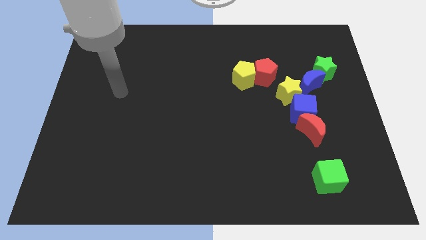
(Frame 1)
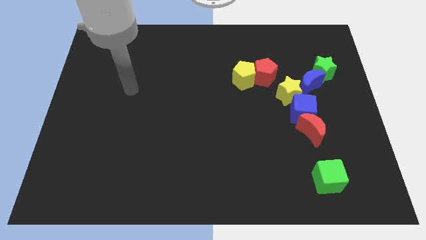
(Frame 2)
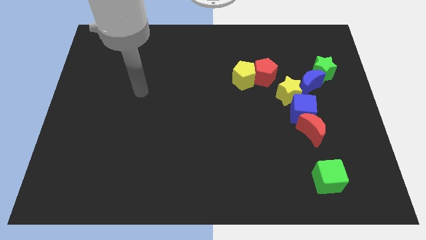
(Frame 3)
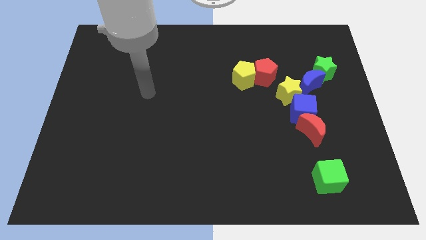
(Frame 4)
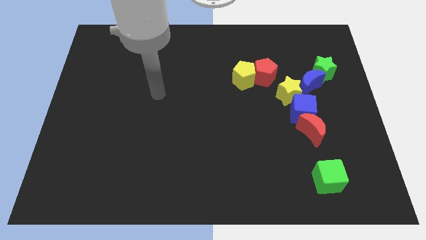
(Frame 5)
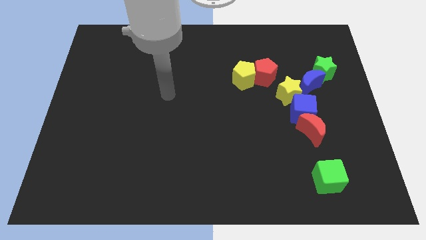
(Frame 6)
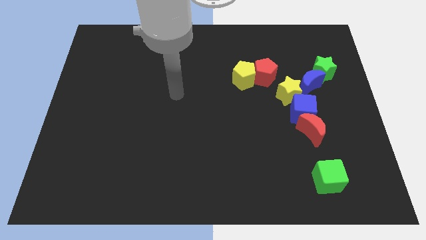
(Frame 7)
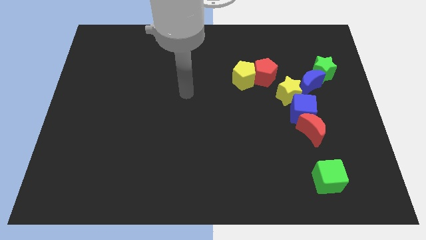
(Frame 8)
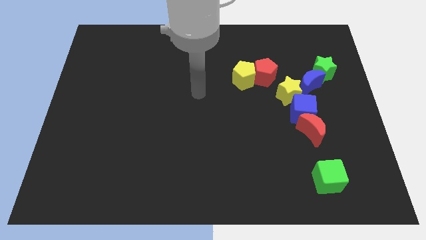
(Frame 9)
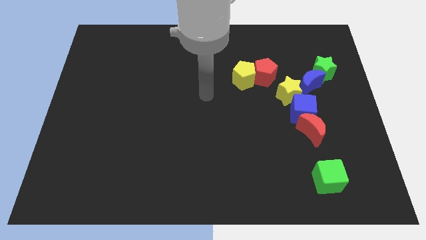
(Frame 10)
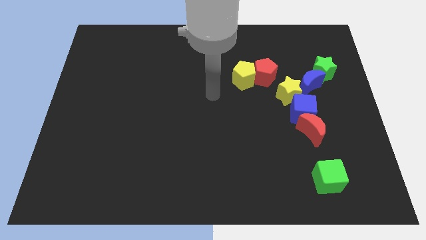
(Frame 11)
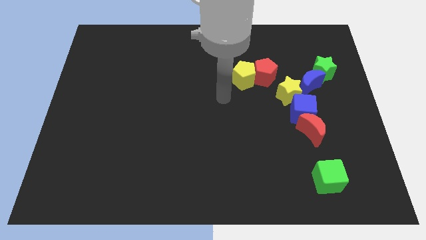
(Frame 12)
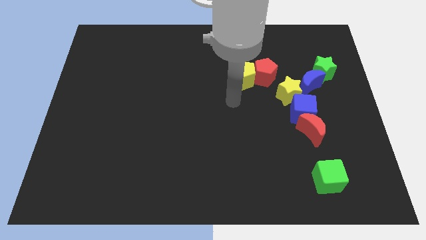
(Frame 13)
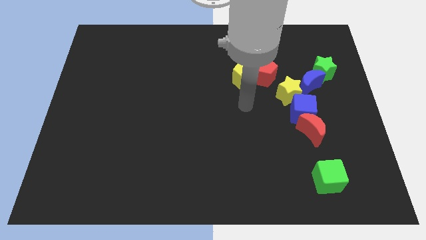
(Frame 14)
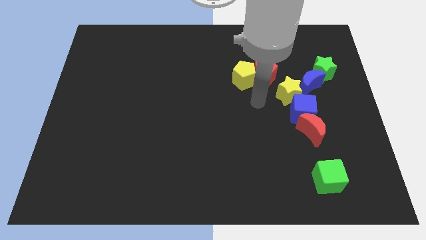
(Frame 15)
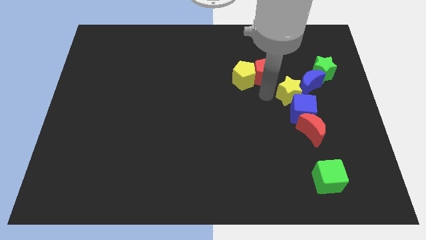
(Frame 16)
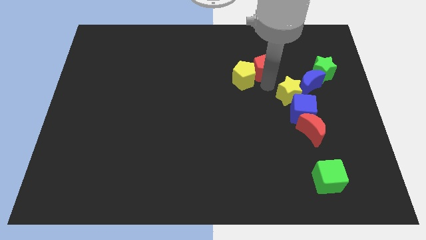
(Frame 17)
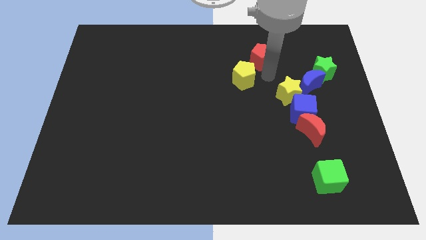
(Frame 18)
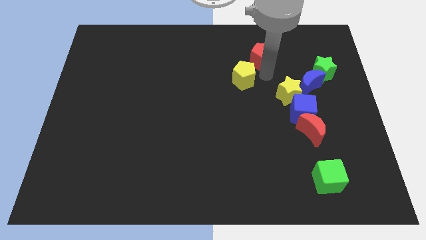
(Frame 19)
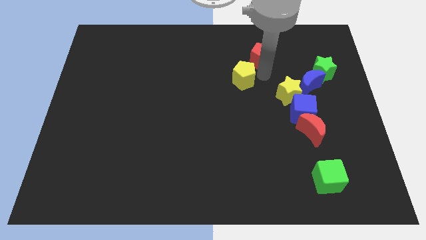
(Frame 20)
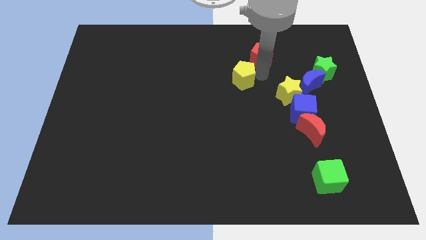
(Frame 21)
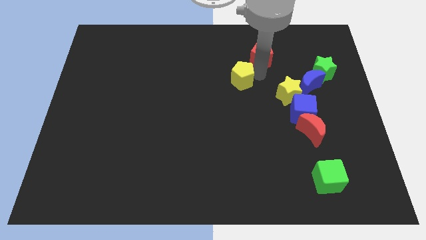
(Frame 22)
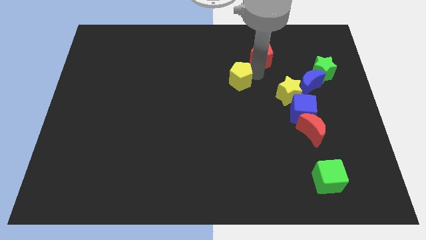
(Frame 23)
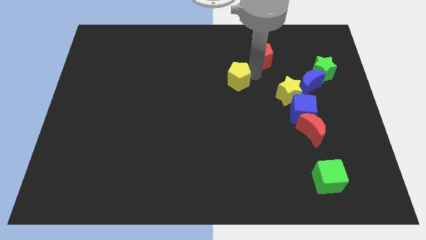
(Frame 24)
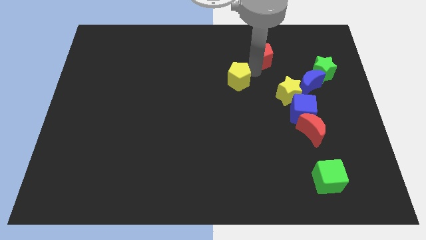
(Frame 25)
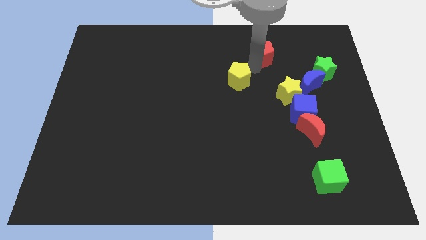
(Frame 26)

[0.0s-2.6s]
separate the yellow pentagon from the red pentagon

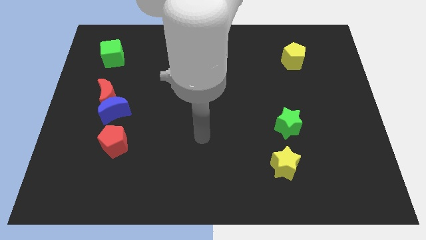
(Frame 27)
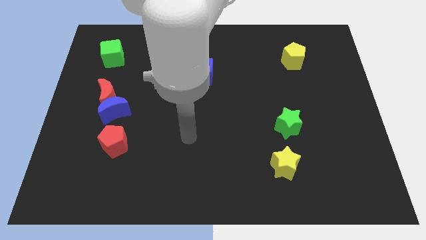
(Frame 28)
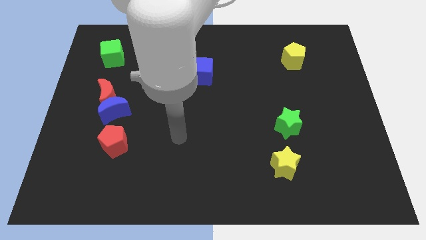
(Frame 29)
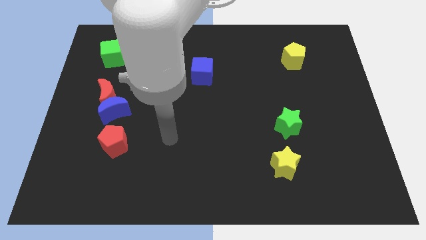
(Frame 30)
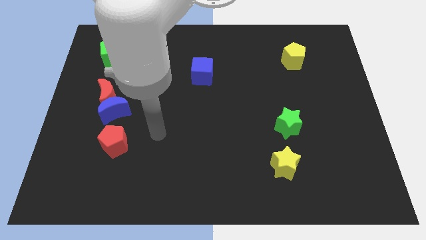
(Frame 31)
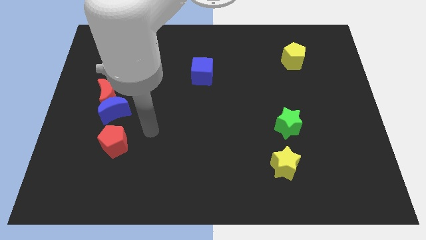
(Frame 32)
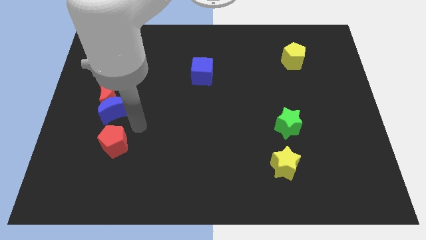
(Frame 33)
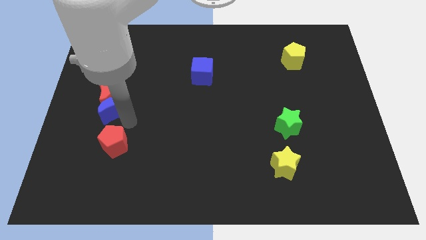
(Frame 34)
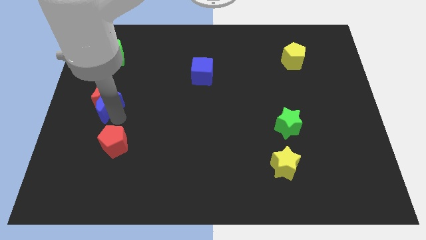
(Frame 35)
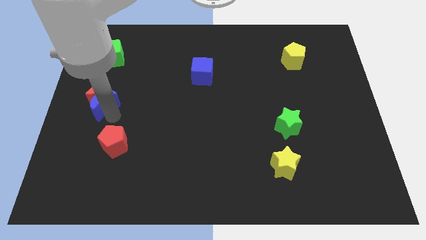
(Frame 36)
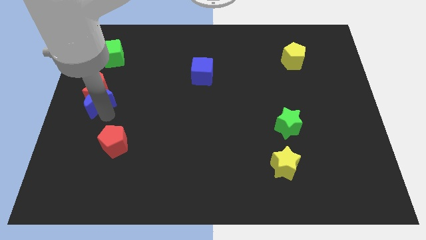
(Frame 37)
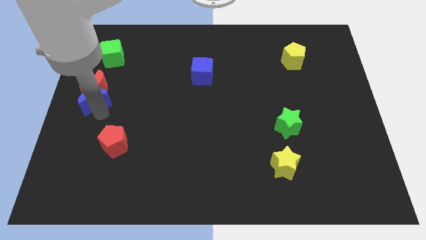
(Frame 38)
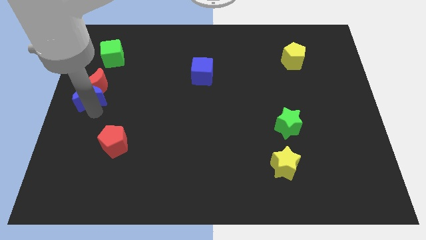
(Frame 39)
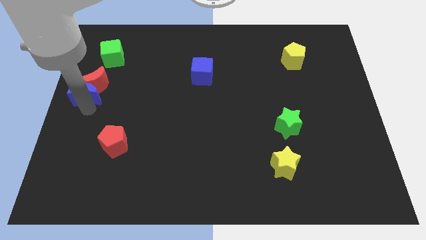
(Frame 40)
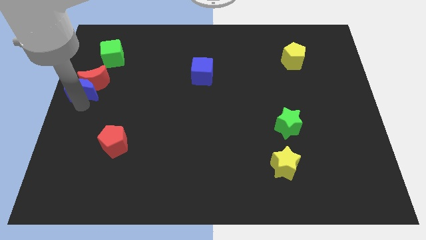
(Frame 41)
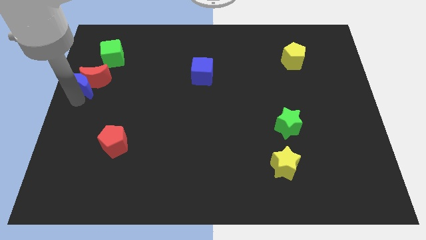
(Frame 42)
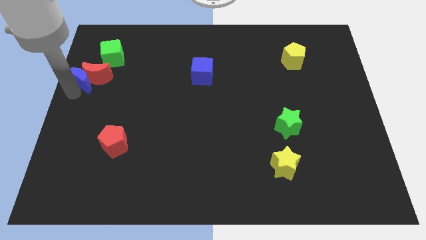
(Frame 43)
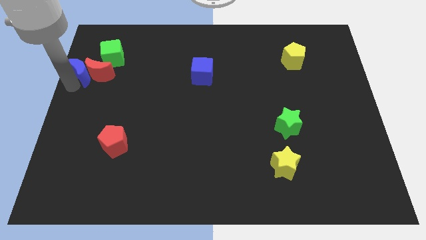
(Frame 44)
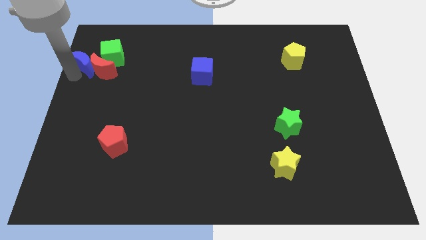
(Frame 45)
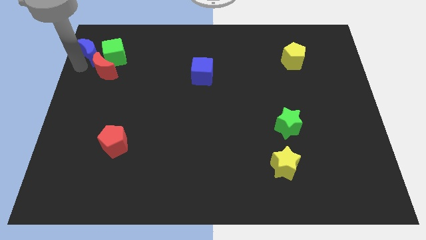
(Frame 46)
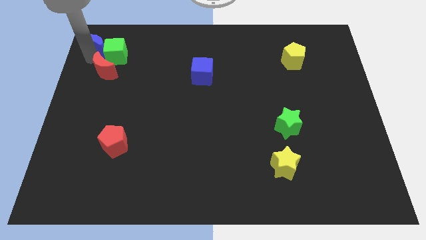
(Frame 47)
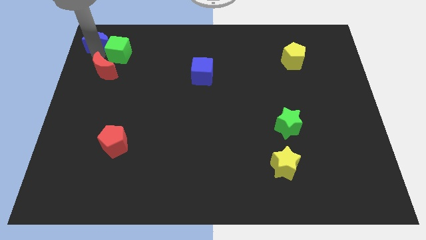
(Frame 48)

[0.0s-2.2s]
separate the red moon from the blue moon

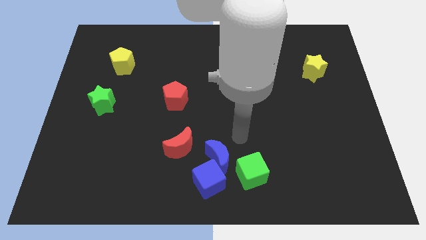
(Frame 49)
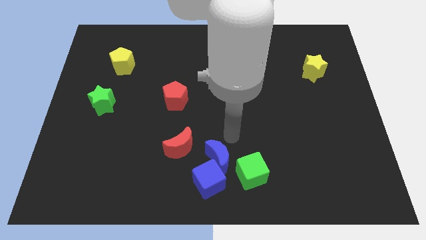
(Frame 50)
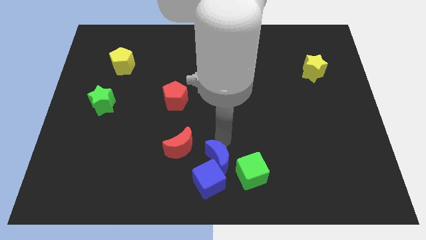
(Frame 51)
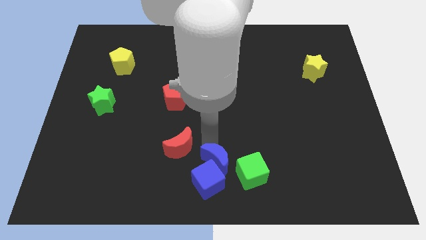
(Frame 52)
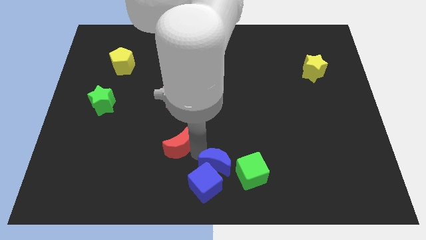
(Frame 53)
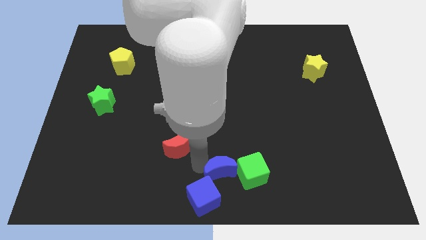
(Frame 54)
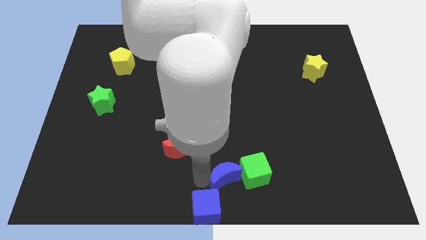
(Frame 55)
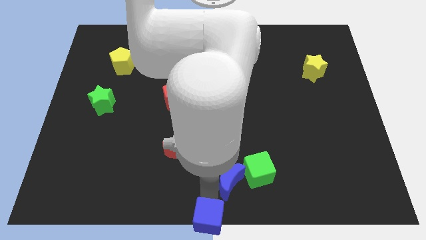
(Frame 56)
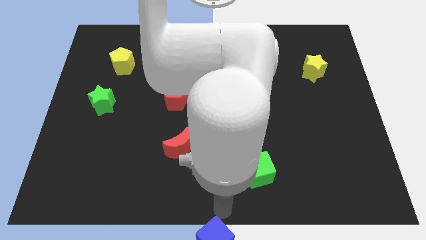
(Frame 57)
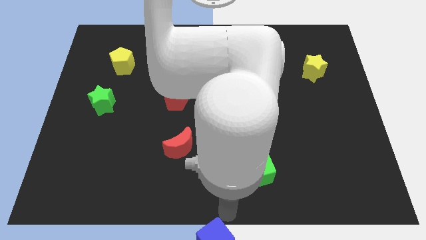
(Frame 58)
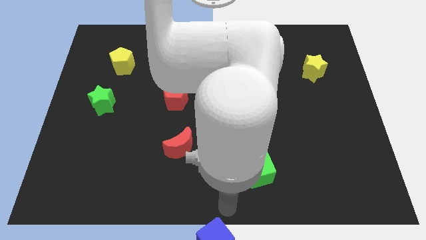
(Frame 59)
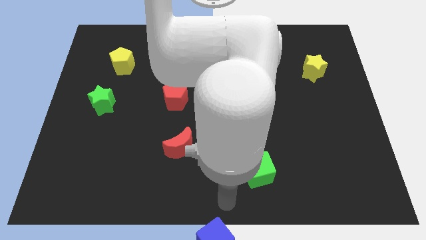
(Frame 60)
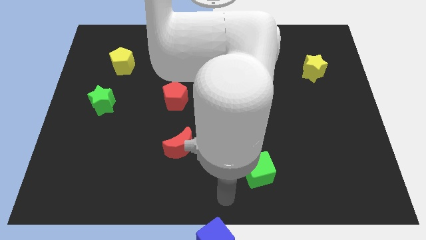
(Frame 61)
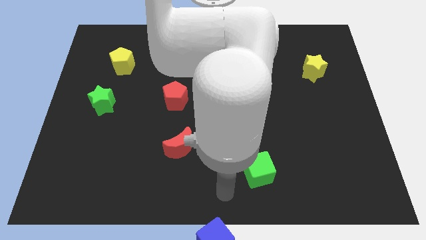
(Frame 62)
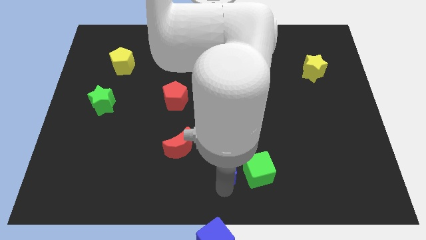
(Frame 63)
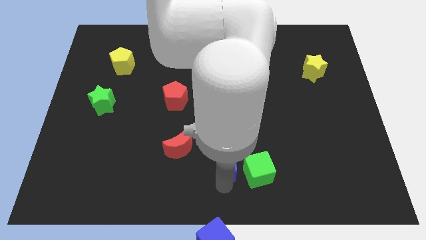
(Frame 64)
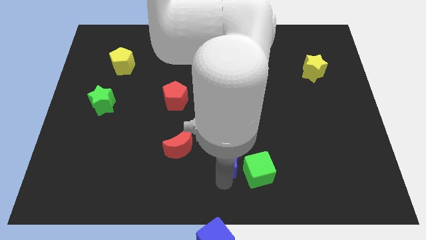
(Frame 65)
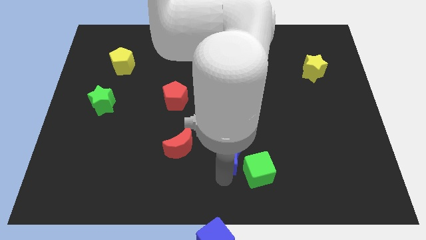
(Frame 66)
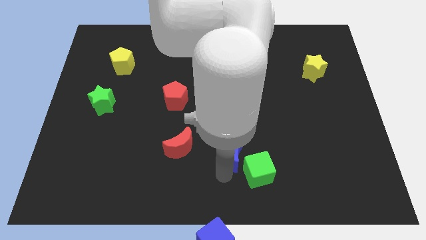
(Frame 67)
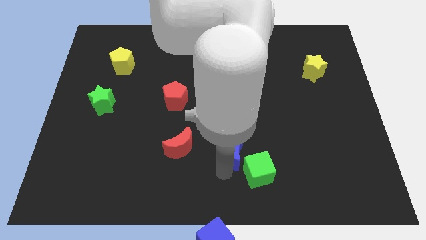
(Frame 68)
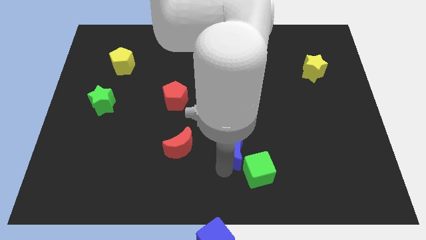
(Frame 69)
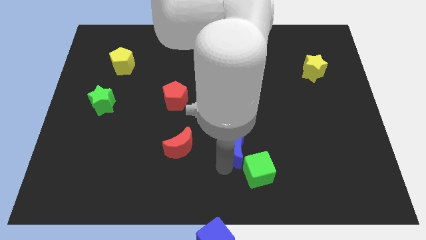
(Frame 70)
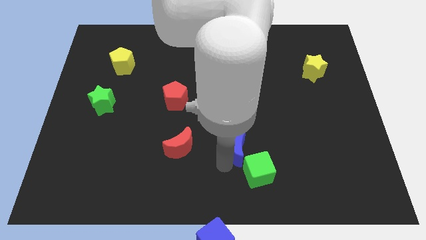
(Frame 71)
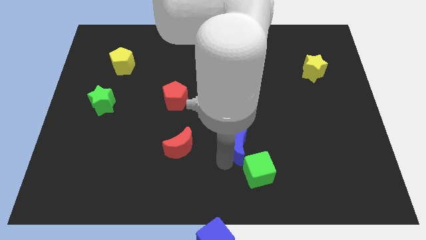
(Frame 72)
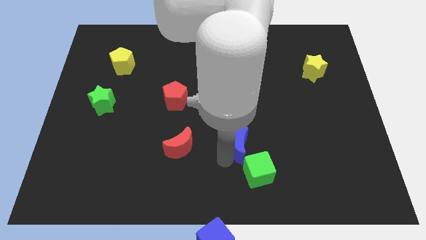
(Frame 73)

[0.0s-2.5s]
separate the blue moon from the blue cube, green cube, and red moon

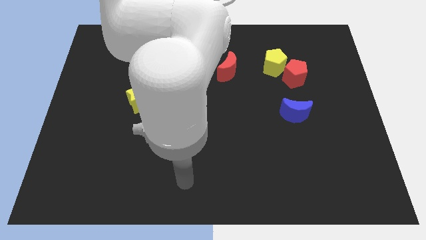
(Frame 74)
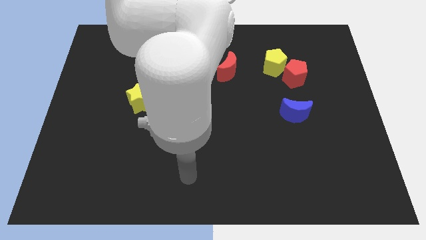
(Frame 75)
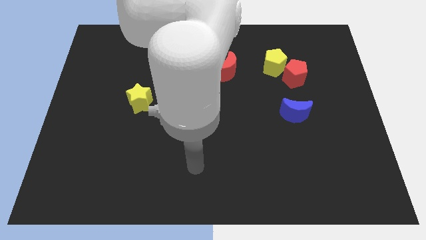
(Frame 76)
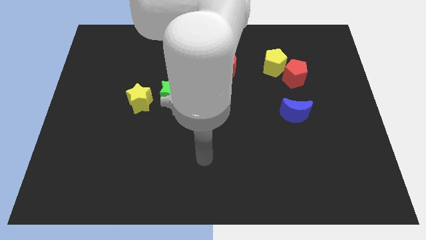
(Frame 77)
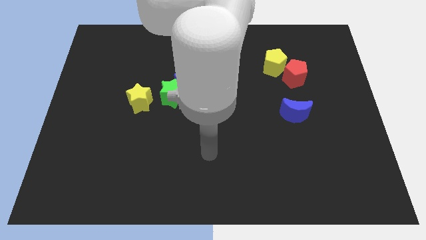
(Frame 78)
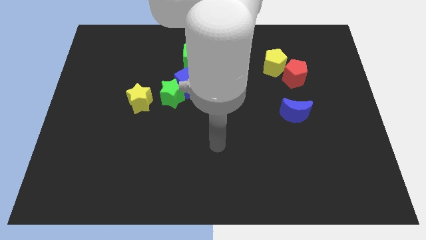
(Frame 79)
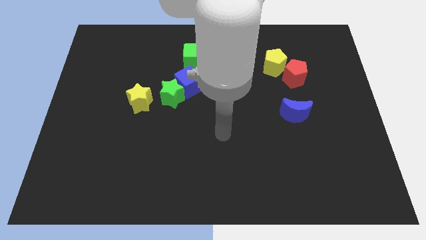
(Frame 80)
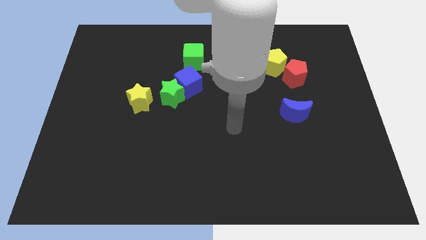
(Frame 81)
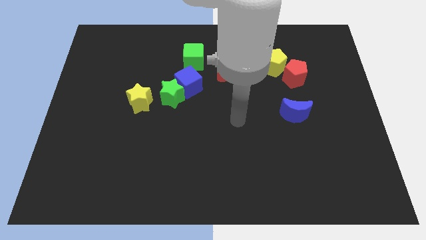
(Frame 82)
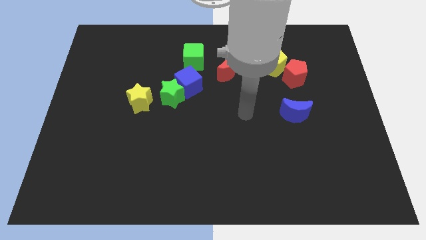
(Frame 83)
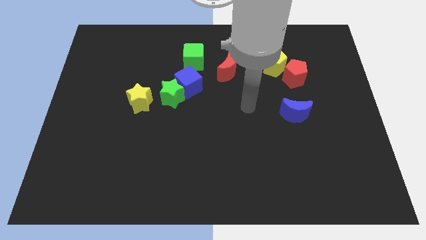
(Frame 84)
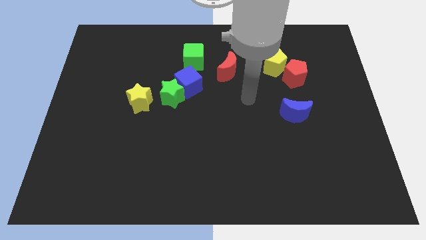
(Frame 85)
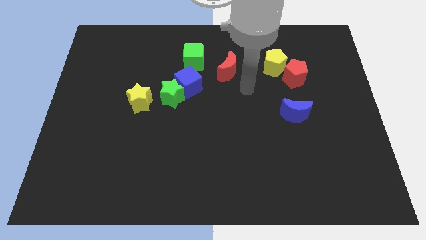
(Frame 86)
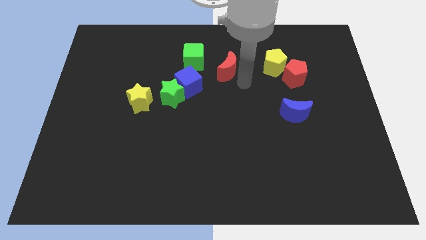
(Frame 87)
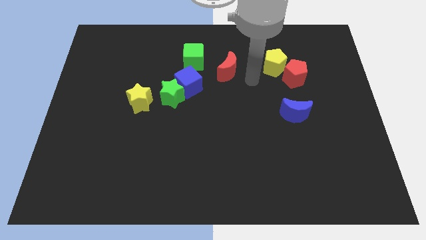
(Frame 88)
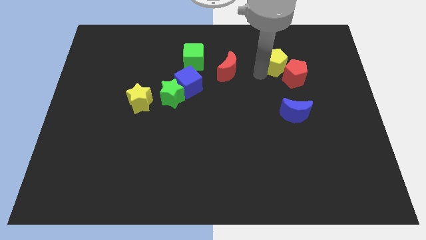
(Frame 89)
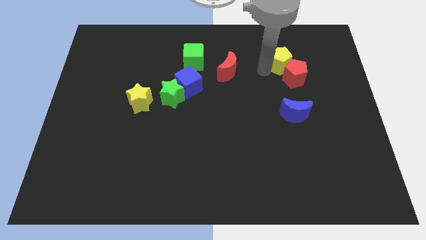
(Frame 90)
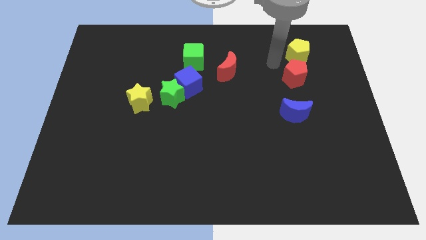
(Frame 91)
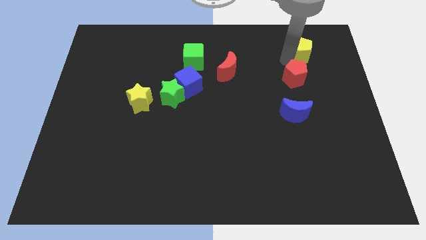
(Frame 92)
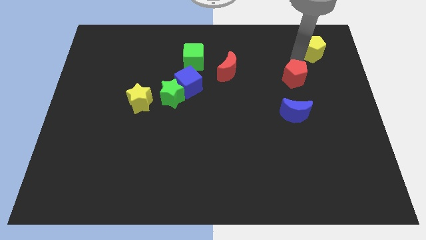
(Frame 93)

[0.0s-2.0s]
separate the red pentagon from the yellow pentagon

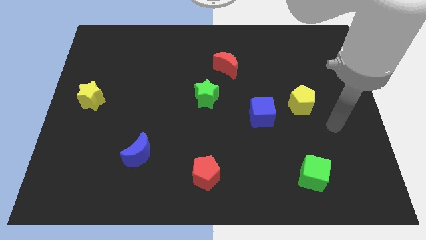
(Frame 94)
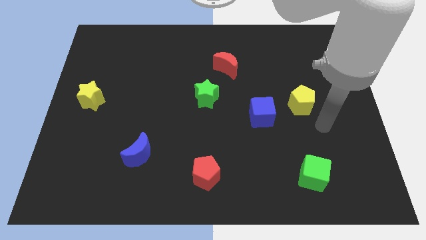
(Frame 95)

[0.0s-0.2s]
move the blue cube away from the yellow pentagon
